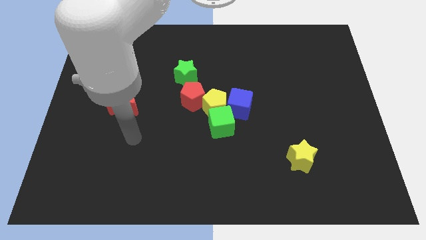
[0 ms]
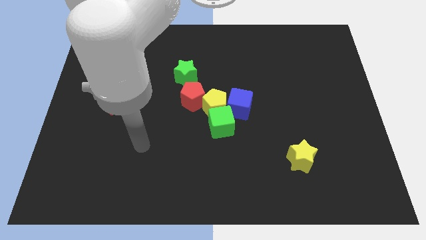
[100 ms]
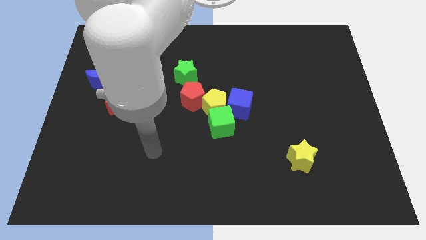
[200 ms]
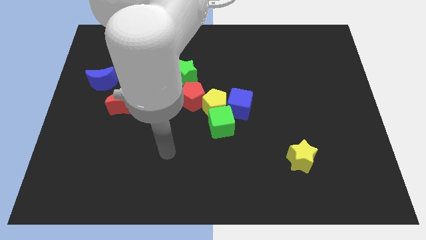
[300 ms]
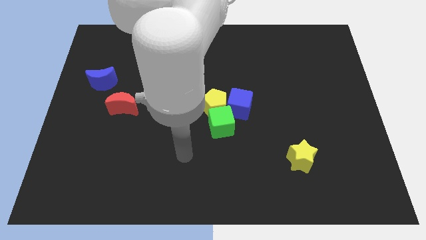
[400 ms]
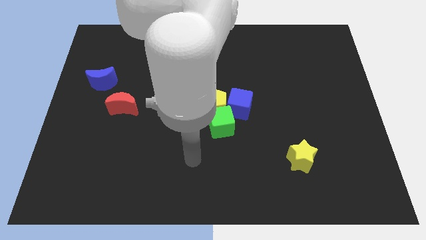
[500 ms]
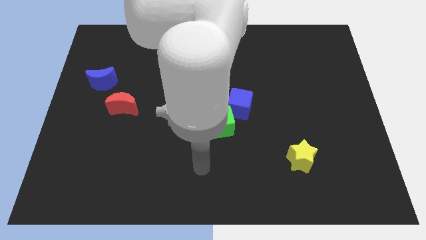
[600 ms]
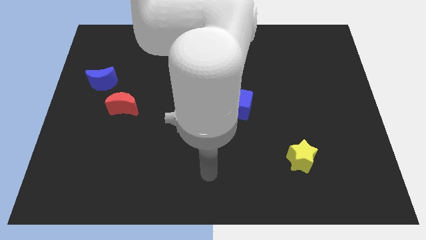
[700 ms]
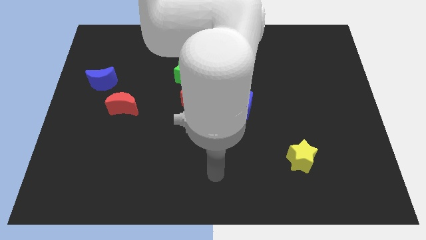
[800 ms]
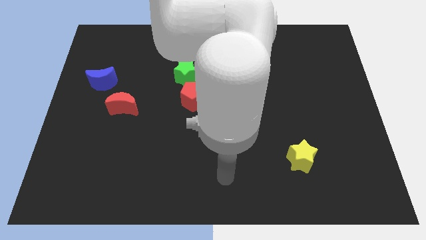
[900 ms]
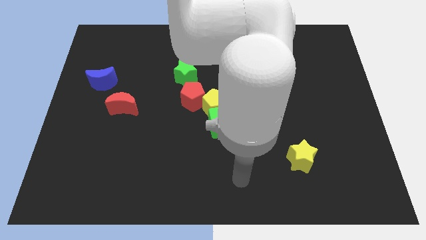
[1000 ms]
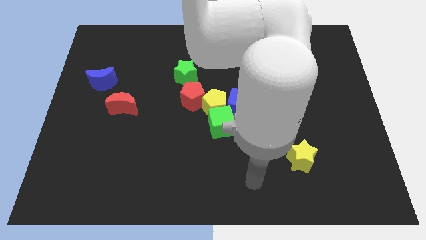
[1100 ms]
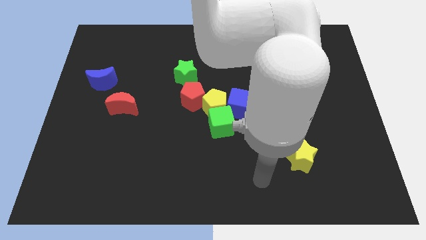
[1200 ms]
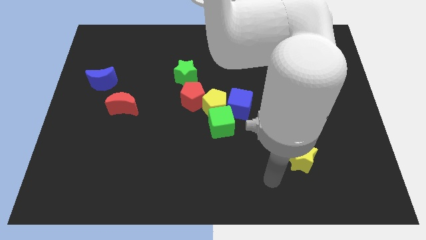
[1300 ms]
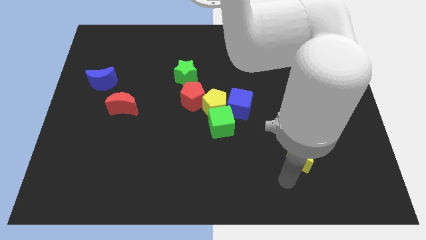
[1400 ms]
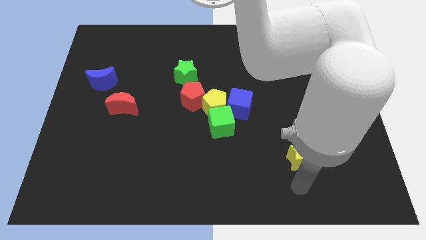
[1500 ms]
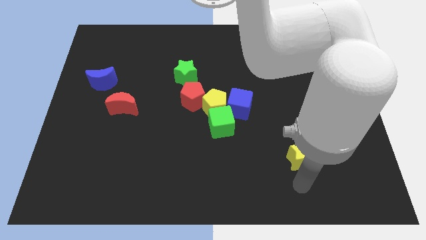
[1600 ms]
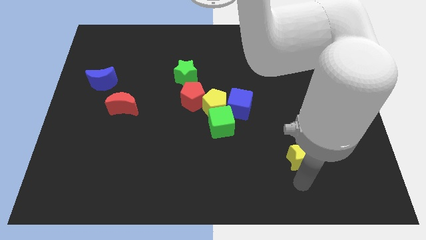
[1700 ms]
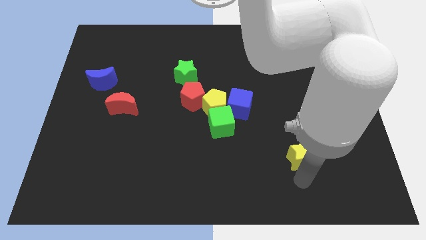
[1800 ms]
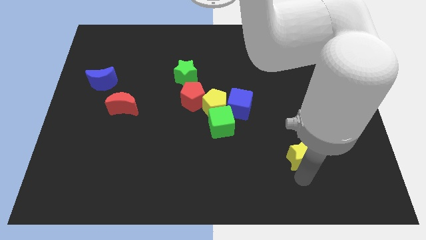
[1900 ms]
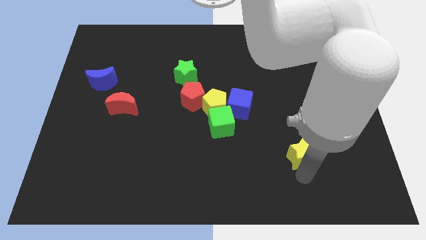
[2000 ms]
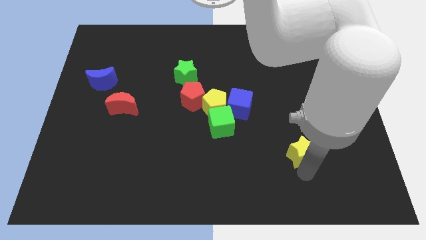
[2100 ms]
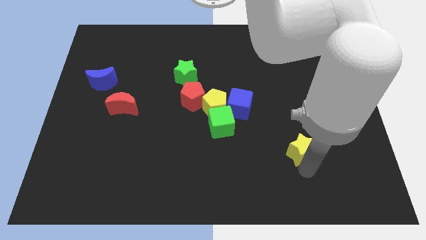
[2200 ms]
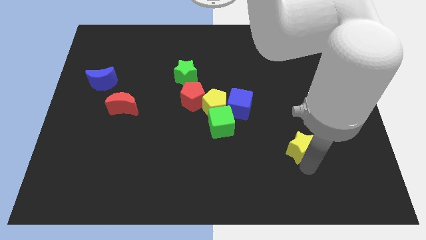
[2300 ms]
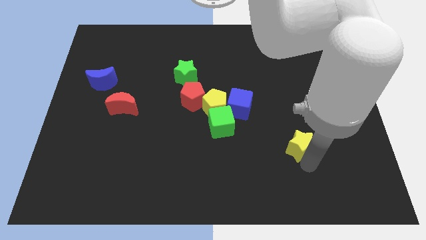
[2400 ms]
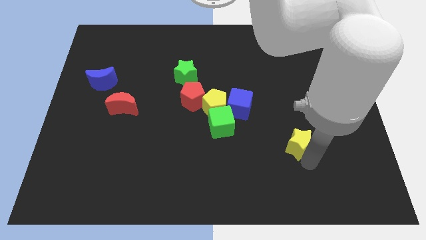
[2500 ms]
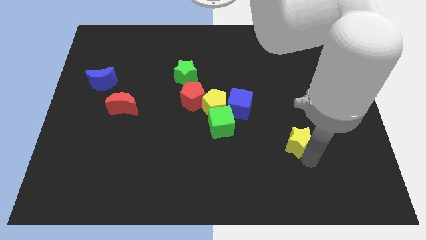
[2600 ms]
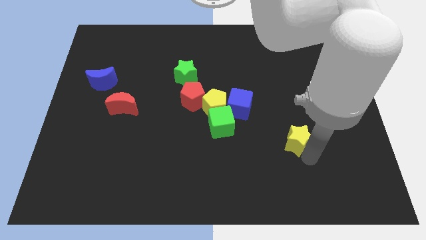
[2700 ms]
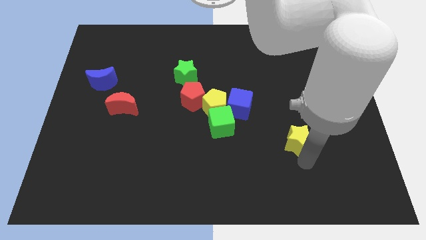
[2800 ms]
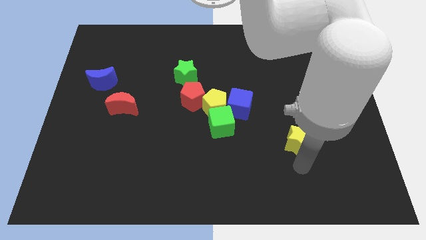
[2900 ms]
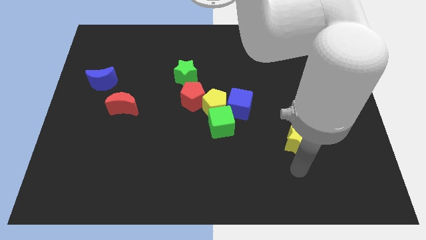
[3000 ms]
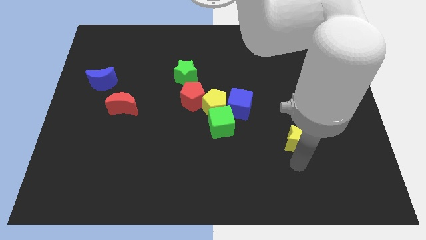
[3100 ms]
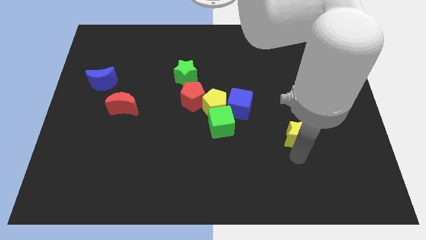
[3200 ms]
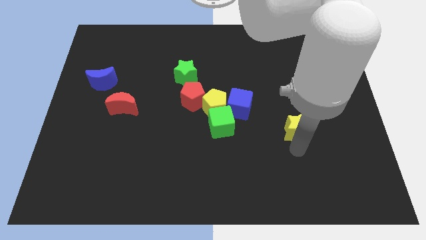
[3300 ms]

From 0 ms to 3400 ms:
push the yellow star somewhat up

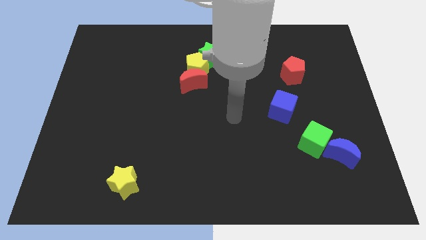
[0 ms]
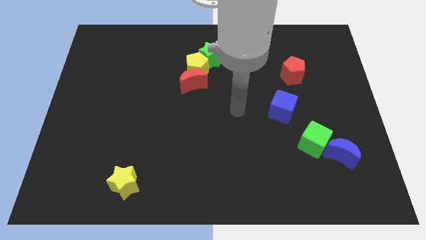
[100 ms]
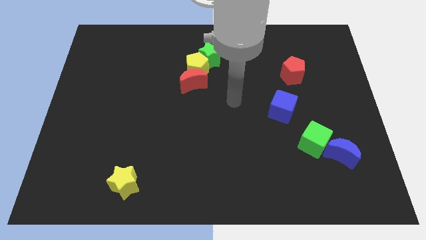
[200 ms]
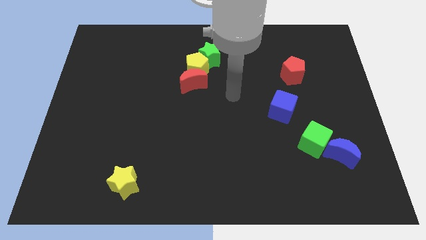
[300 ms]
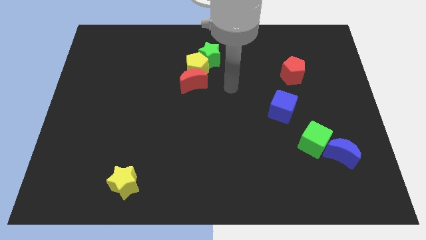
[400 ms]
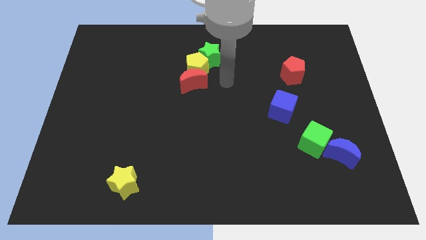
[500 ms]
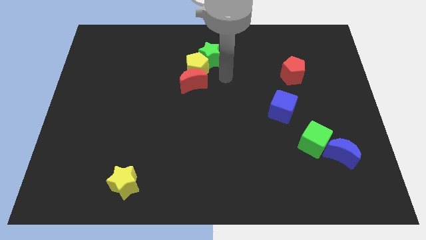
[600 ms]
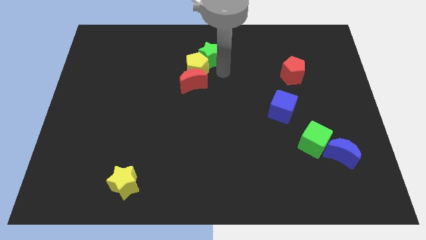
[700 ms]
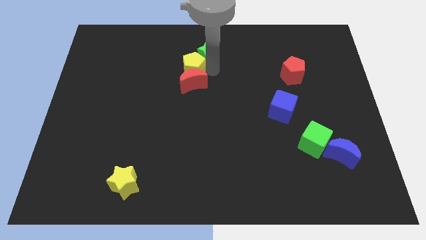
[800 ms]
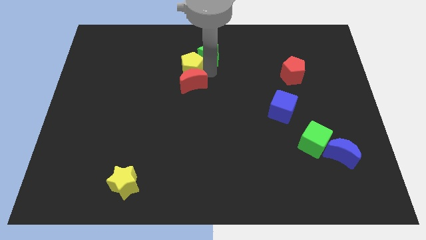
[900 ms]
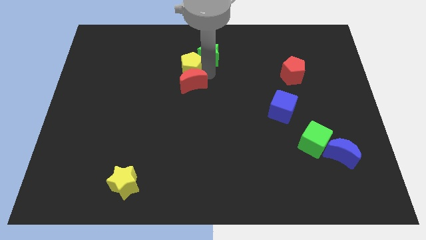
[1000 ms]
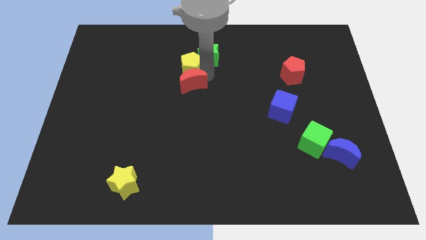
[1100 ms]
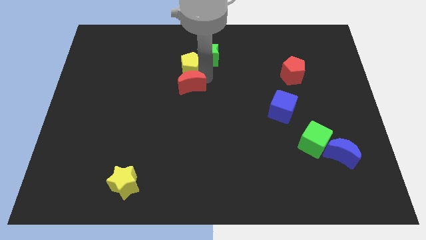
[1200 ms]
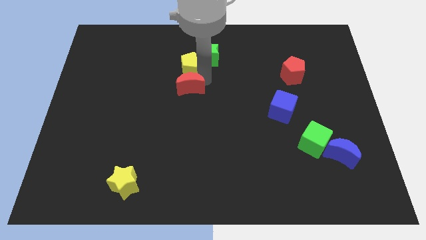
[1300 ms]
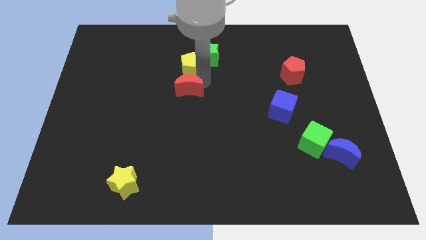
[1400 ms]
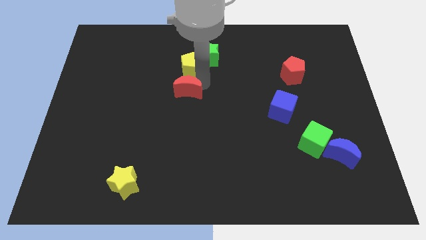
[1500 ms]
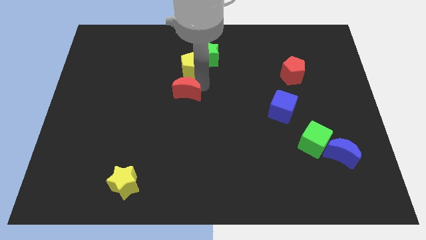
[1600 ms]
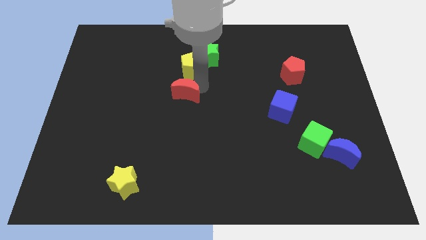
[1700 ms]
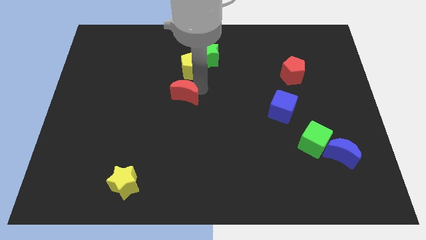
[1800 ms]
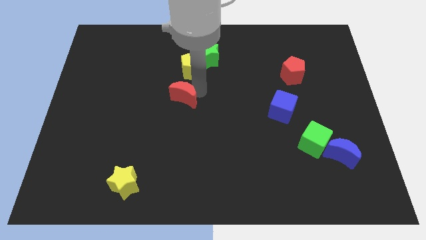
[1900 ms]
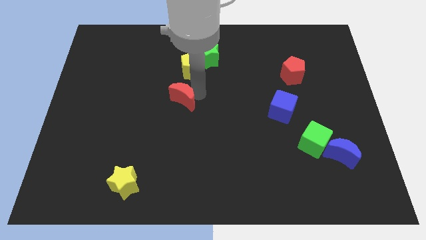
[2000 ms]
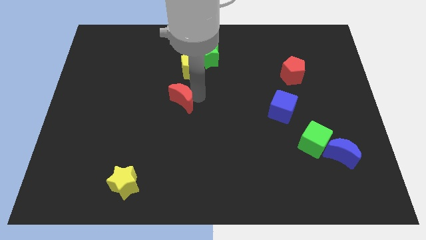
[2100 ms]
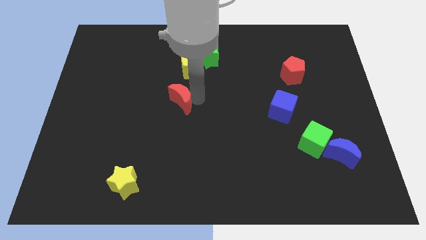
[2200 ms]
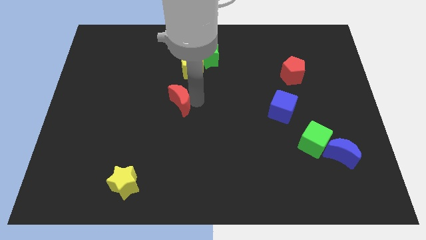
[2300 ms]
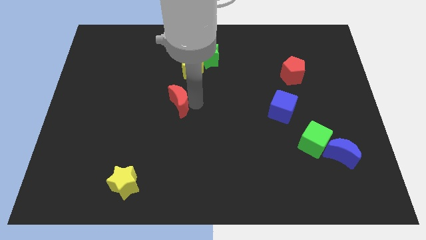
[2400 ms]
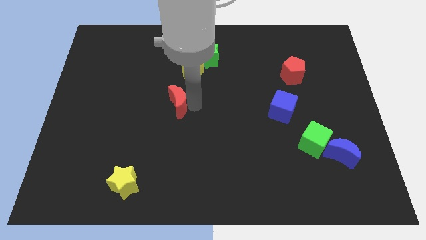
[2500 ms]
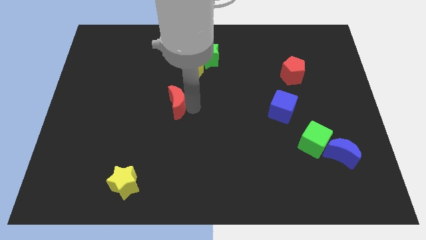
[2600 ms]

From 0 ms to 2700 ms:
move the red moon a bit diagonally downwards and left

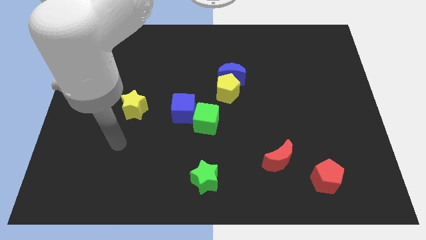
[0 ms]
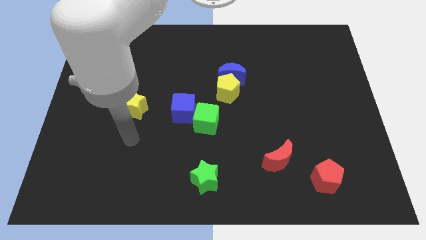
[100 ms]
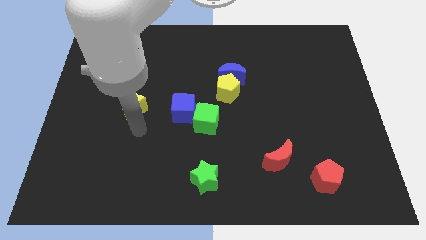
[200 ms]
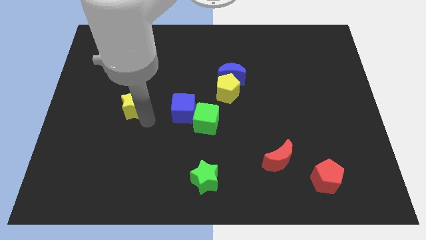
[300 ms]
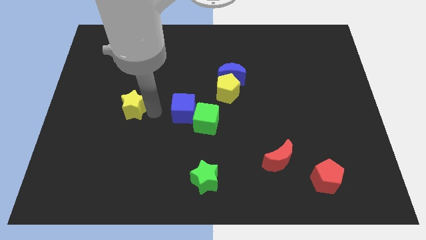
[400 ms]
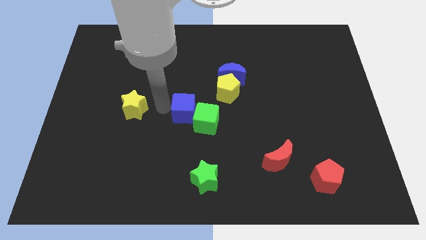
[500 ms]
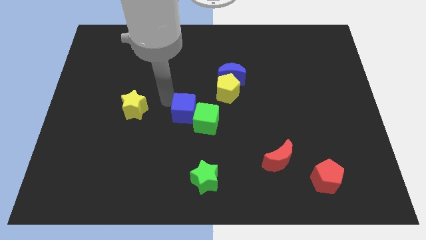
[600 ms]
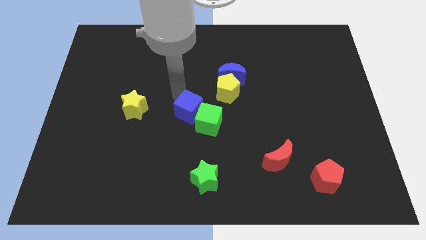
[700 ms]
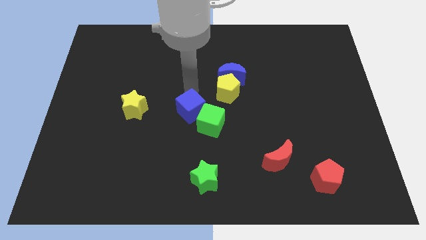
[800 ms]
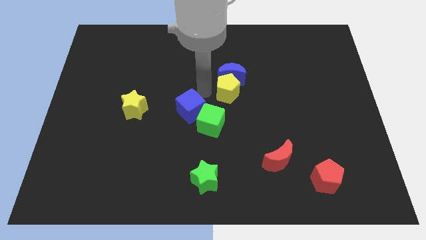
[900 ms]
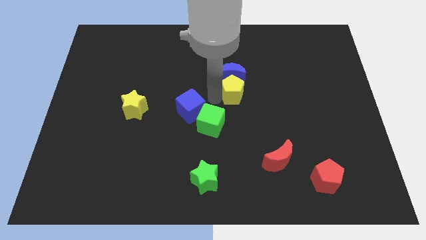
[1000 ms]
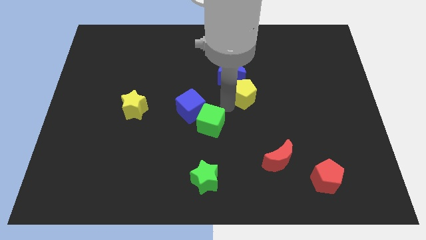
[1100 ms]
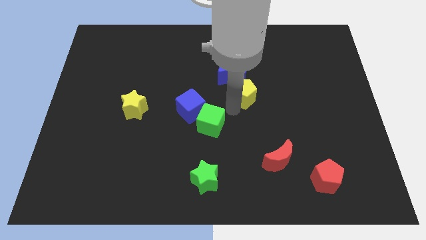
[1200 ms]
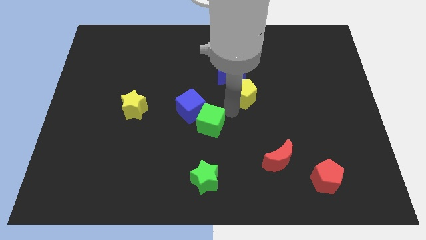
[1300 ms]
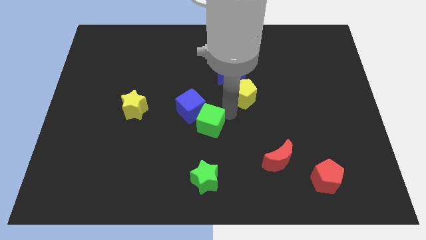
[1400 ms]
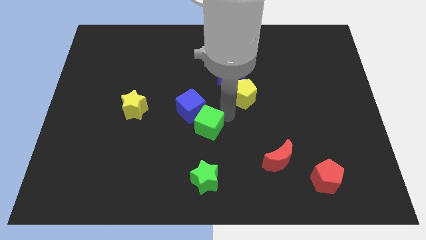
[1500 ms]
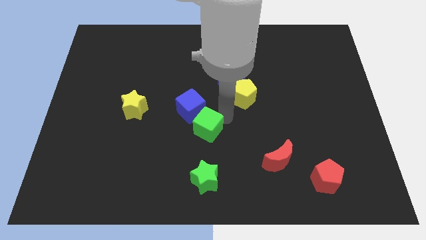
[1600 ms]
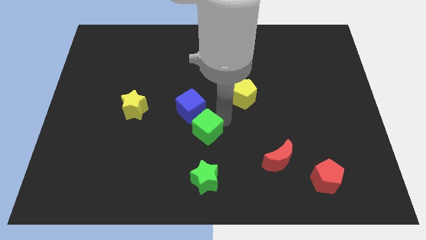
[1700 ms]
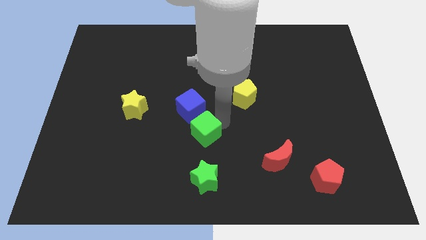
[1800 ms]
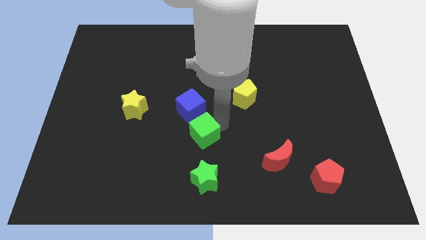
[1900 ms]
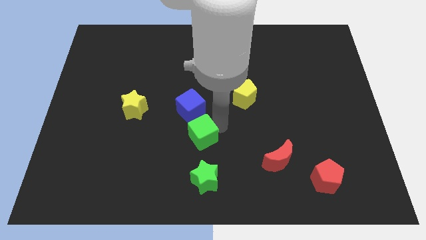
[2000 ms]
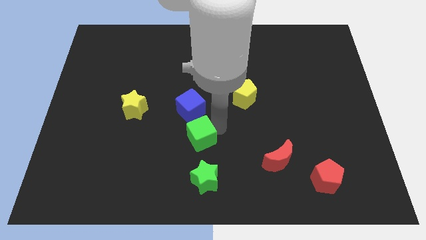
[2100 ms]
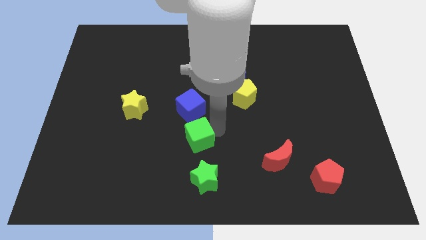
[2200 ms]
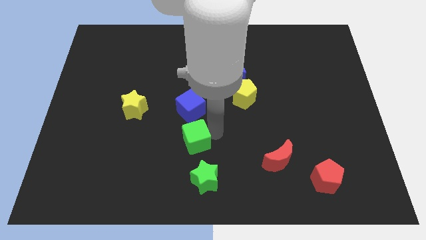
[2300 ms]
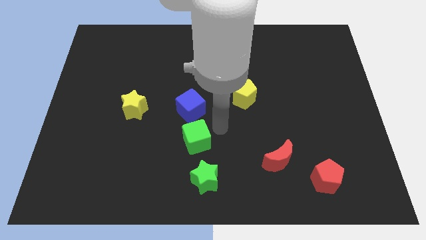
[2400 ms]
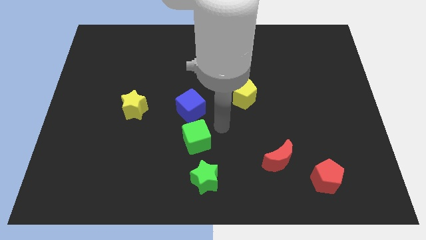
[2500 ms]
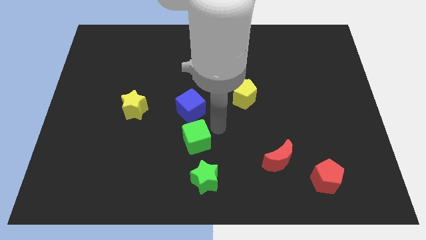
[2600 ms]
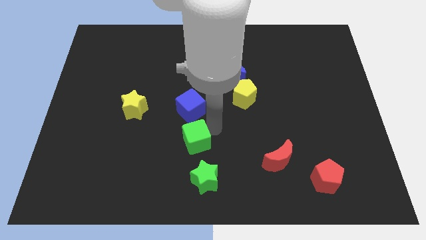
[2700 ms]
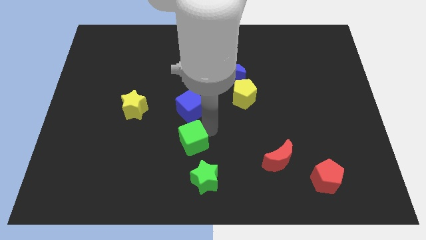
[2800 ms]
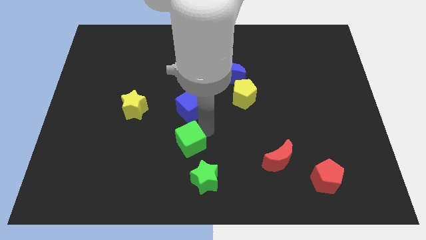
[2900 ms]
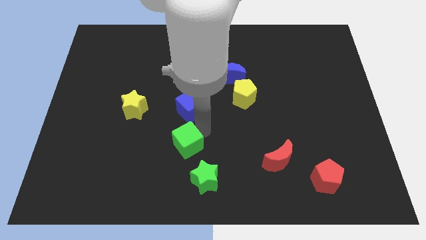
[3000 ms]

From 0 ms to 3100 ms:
push the green cube a bit downwards and then to the left
